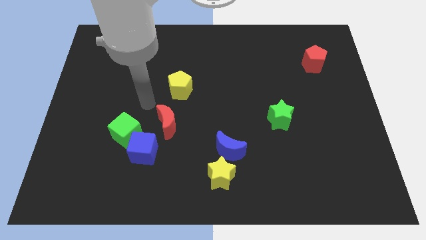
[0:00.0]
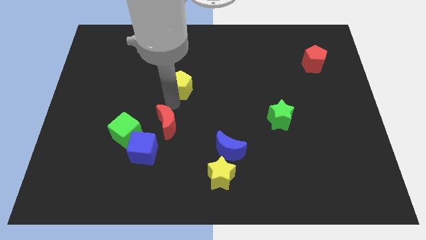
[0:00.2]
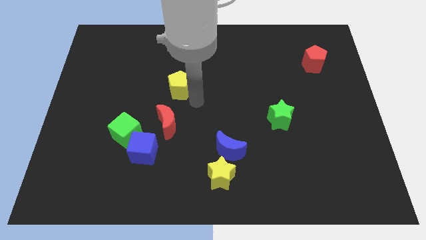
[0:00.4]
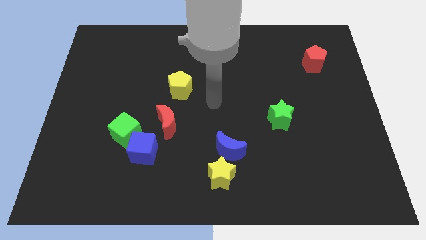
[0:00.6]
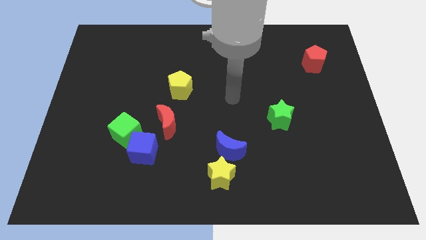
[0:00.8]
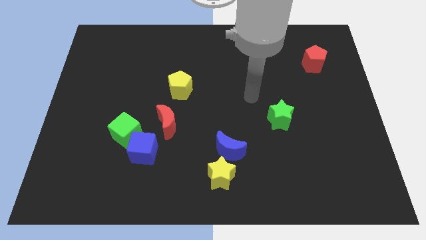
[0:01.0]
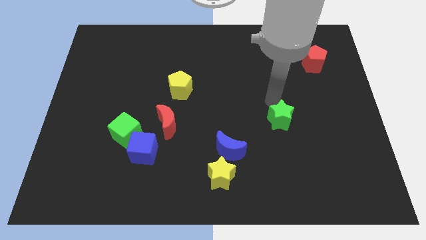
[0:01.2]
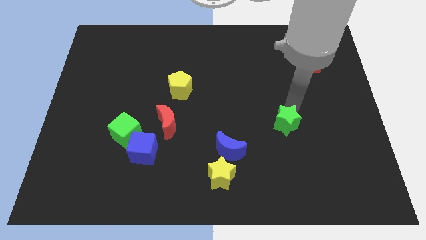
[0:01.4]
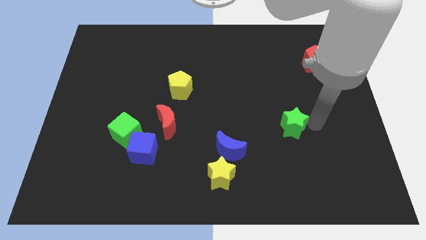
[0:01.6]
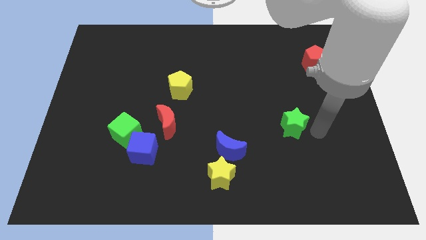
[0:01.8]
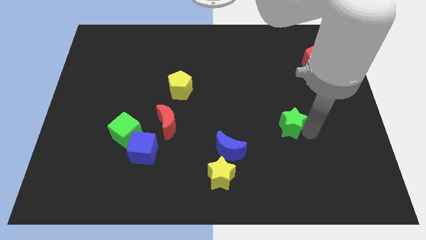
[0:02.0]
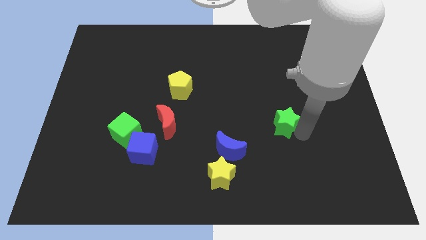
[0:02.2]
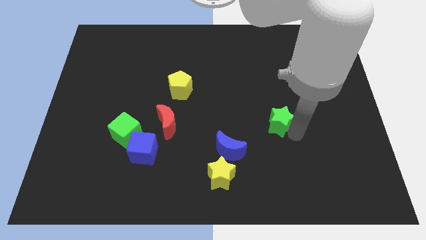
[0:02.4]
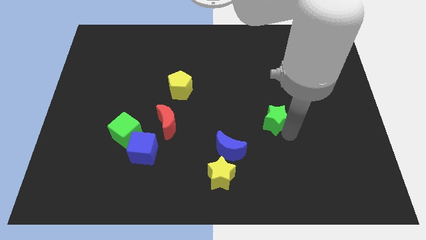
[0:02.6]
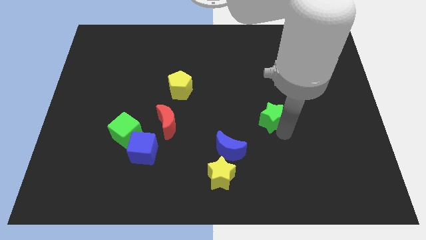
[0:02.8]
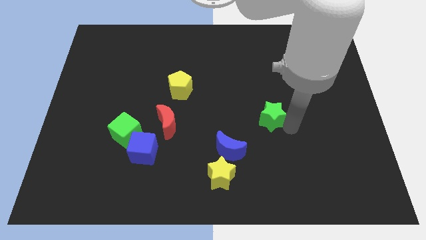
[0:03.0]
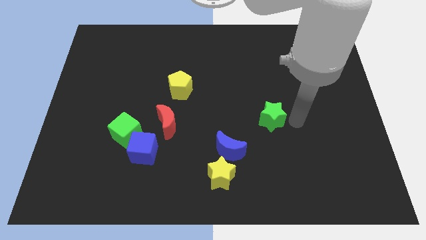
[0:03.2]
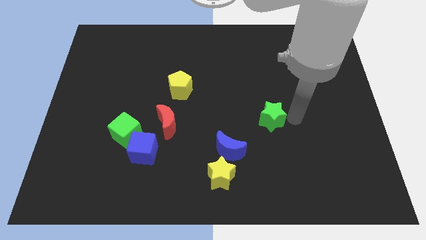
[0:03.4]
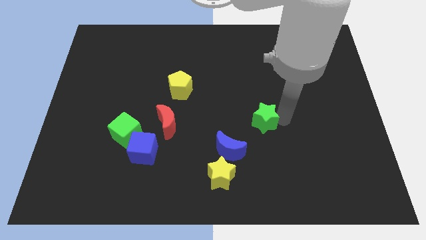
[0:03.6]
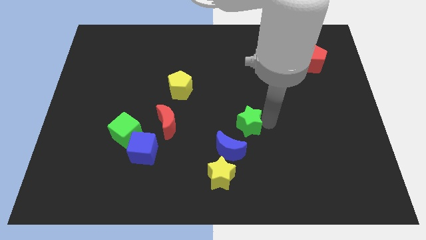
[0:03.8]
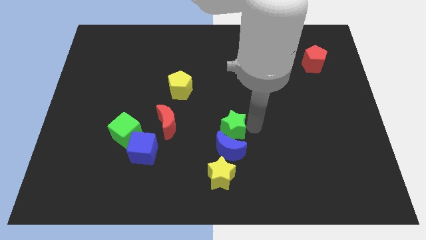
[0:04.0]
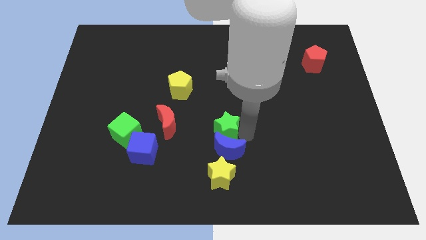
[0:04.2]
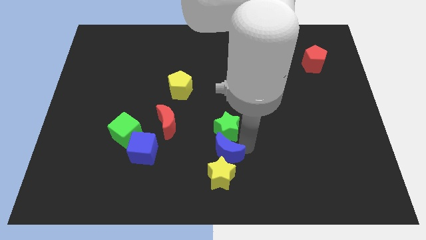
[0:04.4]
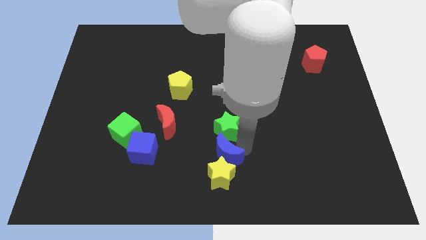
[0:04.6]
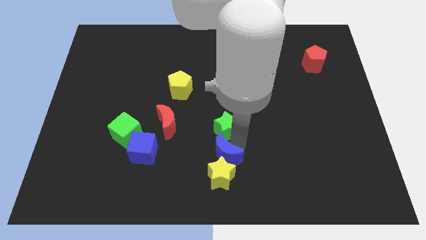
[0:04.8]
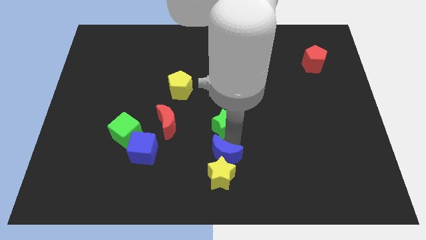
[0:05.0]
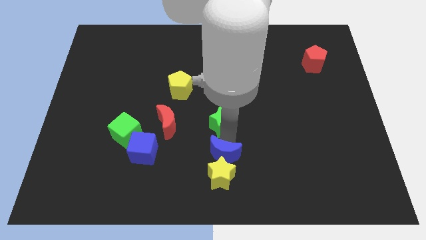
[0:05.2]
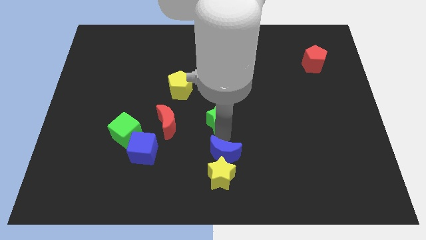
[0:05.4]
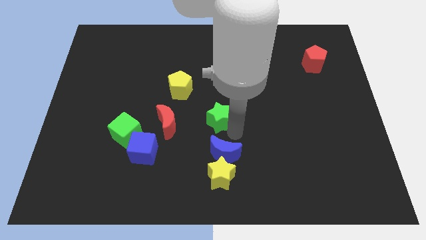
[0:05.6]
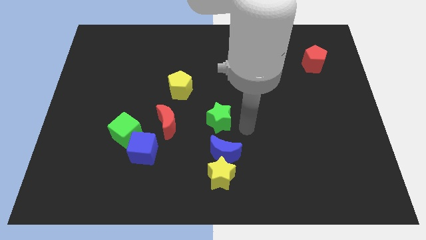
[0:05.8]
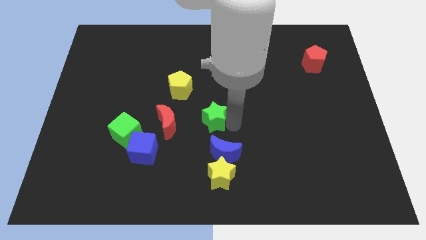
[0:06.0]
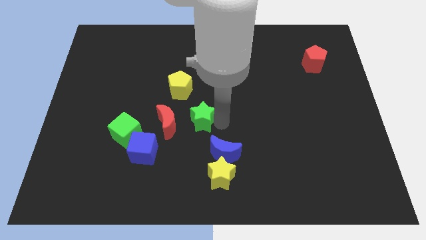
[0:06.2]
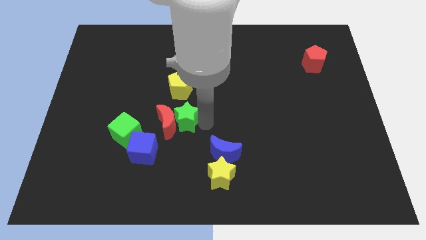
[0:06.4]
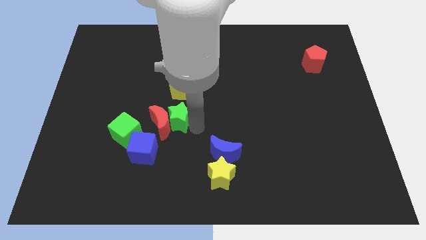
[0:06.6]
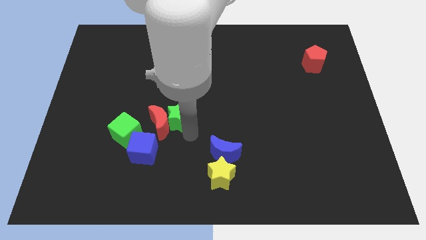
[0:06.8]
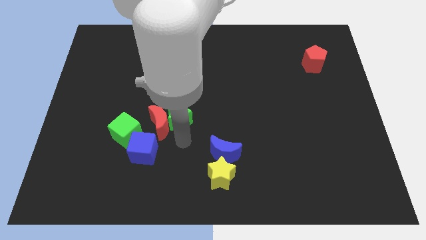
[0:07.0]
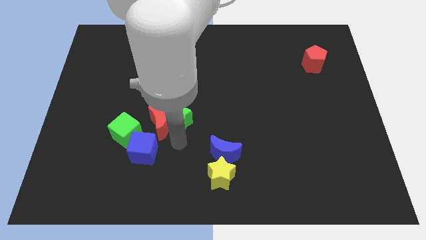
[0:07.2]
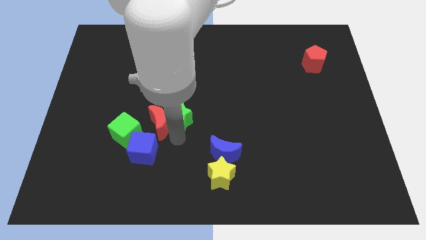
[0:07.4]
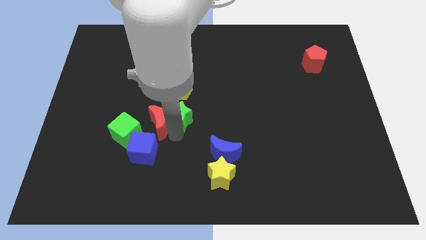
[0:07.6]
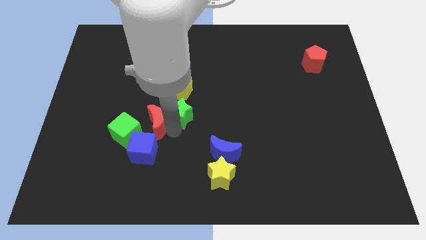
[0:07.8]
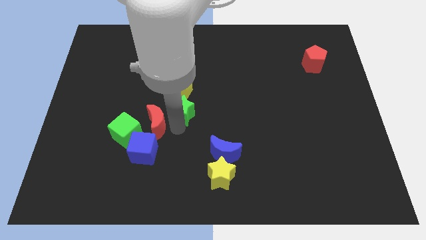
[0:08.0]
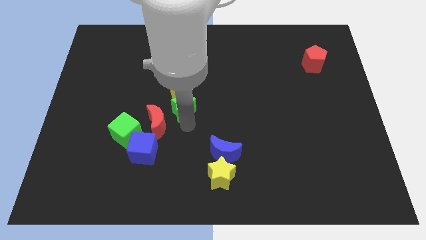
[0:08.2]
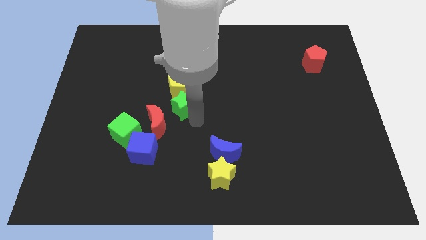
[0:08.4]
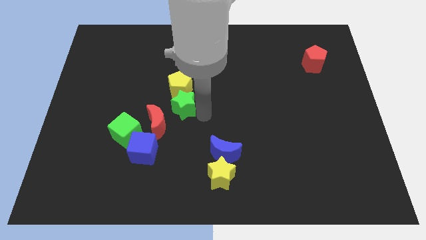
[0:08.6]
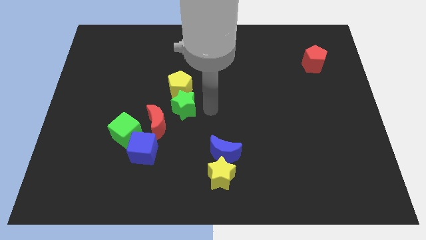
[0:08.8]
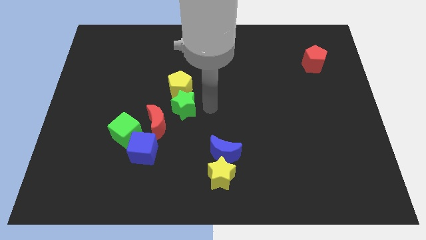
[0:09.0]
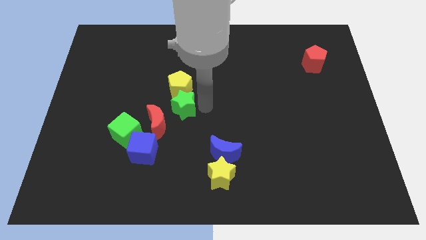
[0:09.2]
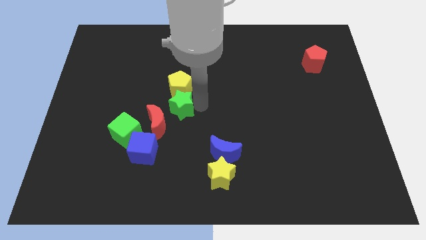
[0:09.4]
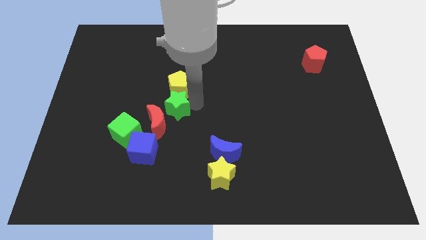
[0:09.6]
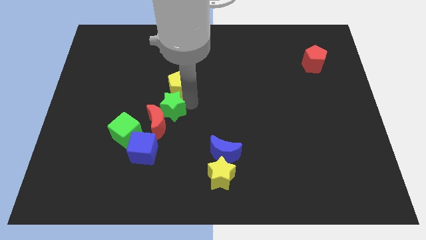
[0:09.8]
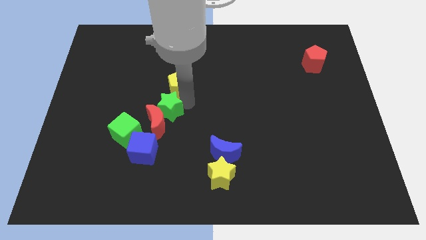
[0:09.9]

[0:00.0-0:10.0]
put the green star above the blue cube

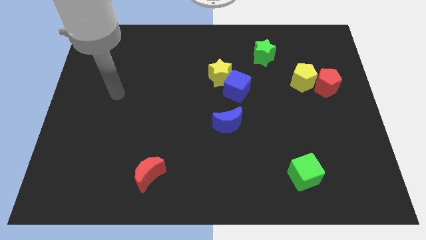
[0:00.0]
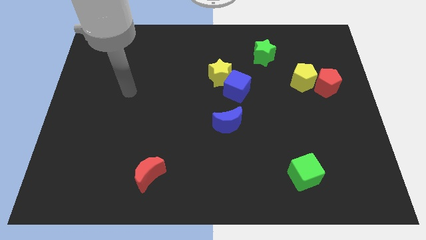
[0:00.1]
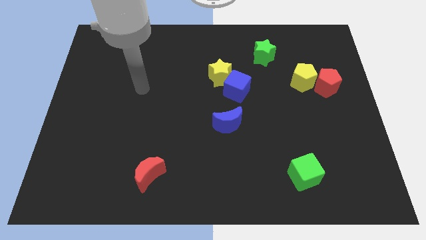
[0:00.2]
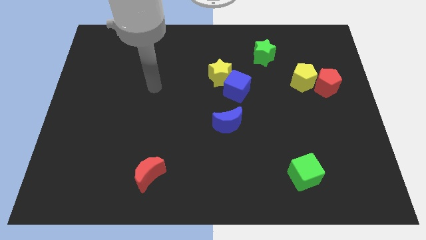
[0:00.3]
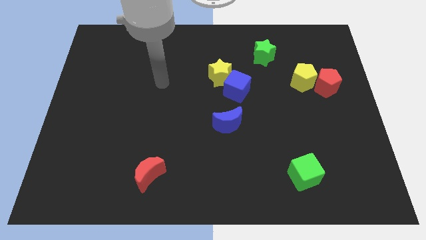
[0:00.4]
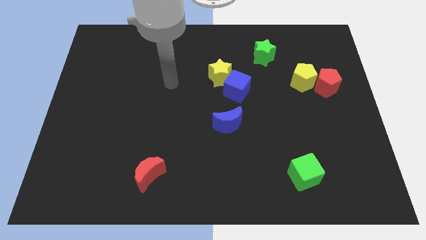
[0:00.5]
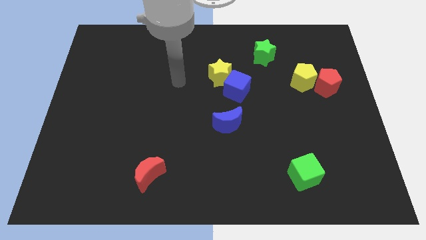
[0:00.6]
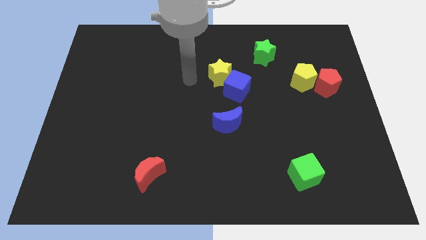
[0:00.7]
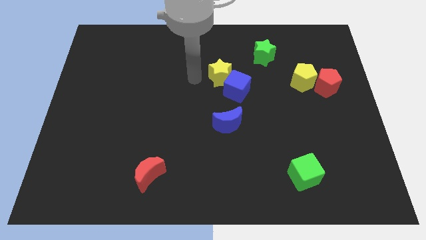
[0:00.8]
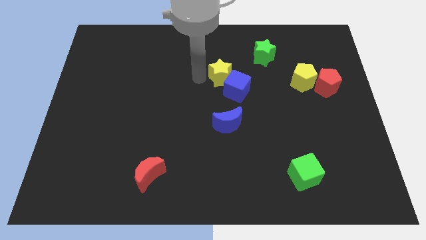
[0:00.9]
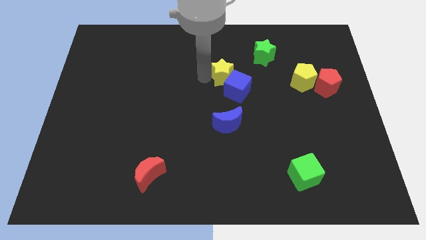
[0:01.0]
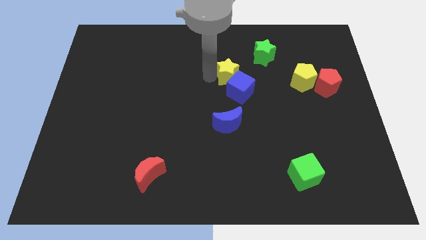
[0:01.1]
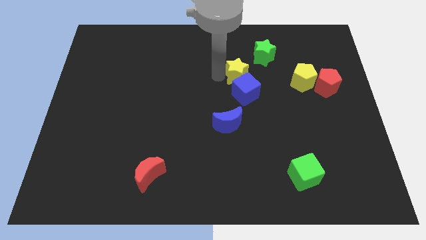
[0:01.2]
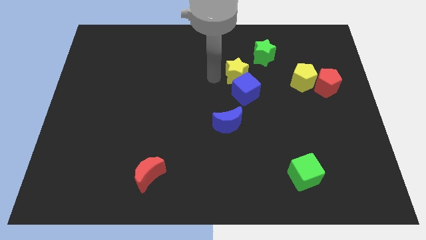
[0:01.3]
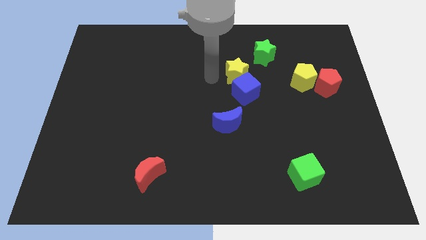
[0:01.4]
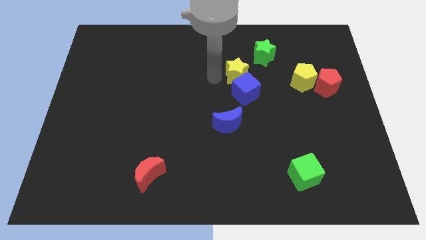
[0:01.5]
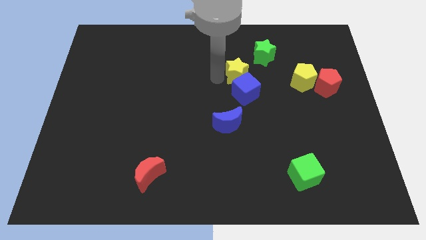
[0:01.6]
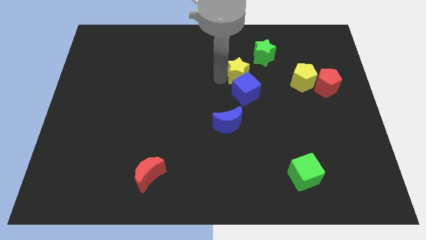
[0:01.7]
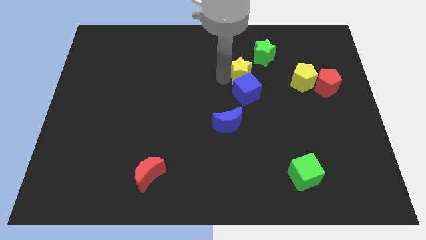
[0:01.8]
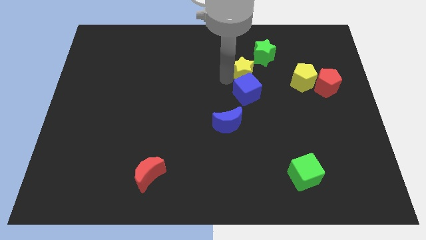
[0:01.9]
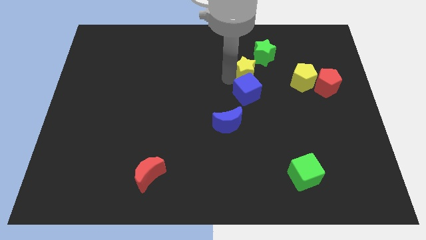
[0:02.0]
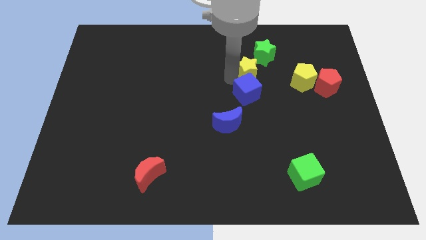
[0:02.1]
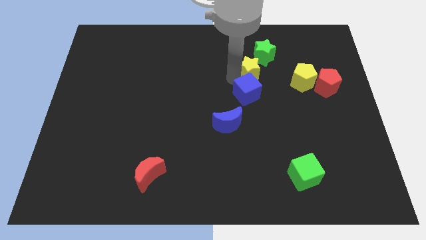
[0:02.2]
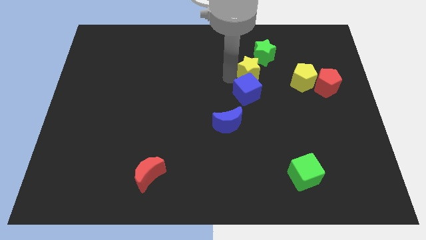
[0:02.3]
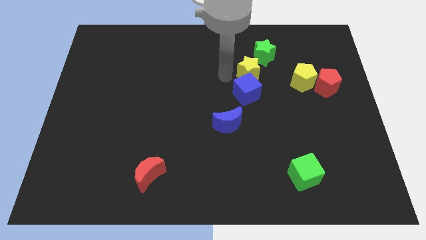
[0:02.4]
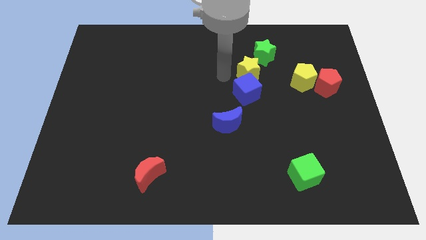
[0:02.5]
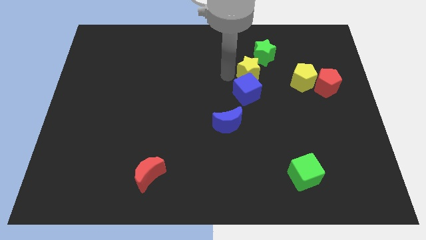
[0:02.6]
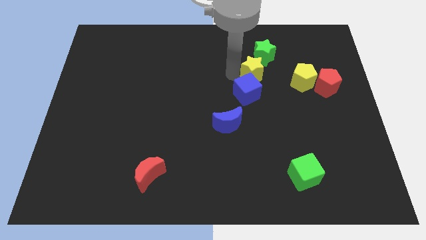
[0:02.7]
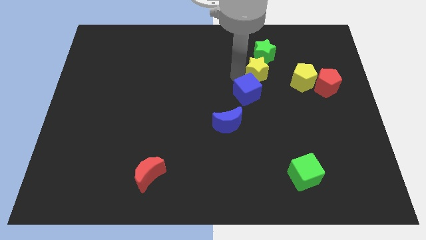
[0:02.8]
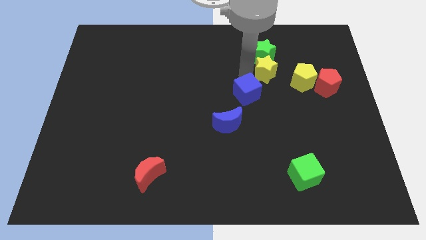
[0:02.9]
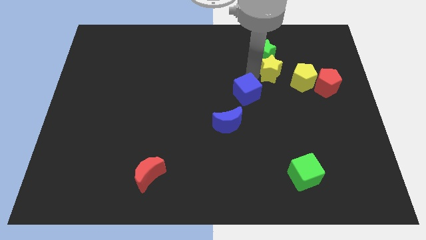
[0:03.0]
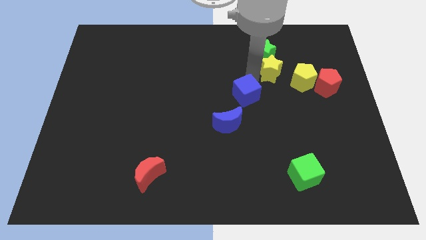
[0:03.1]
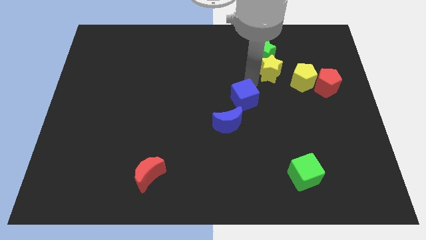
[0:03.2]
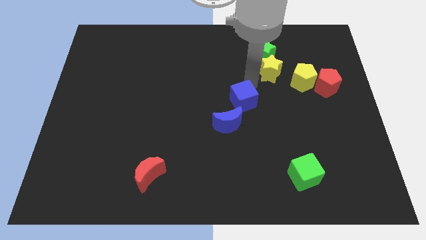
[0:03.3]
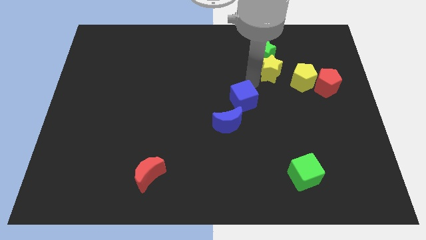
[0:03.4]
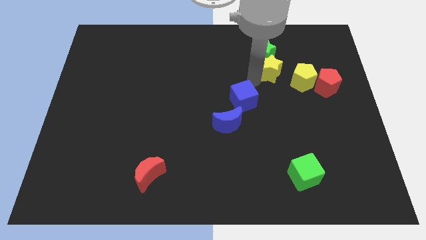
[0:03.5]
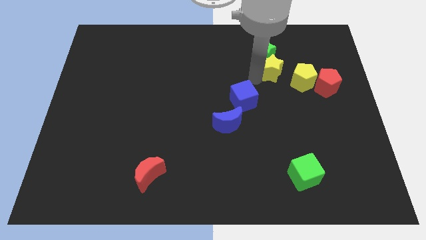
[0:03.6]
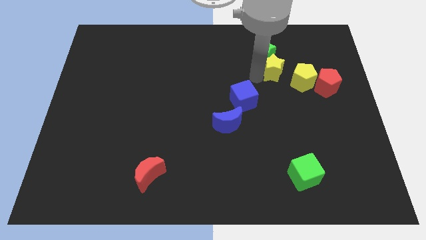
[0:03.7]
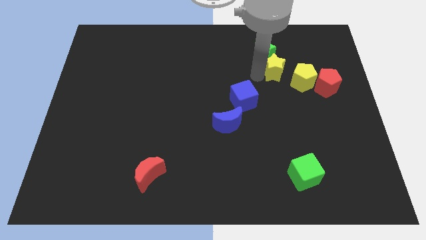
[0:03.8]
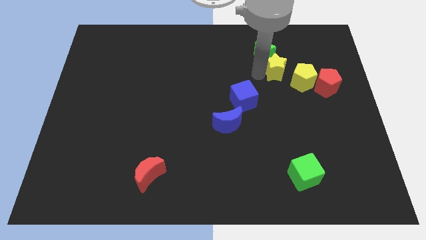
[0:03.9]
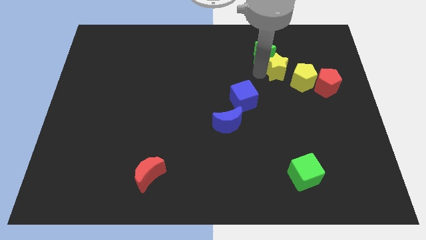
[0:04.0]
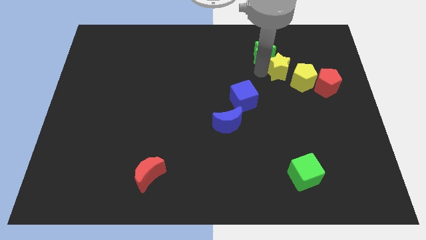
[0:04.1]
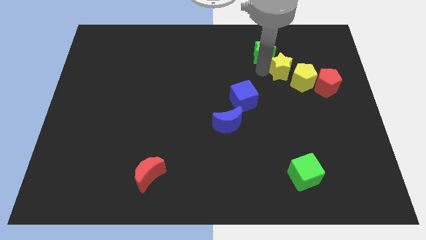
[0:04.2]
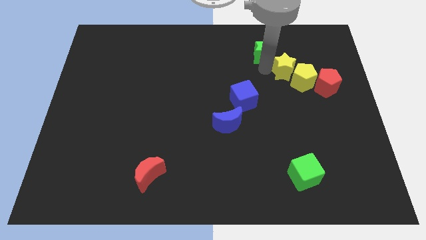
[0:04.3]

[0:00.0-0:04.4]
move the yellow star to the right of the green star
